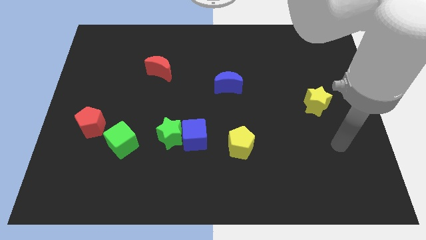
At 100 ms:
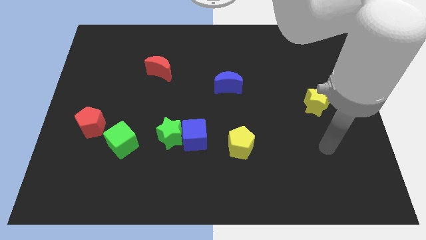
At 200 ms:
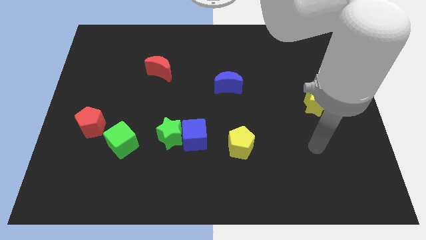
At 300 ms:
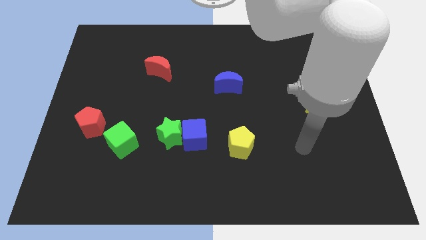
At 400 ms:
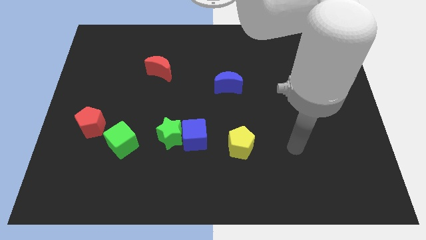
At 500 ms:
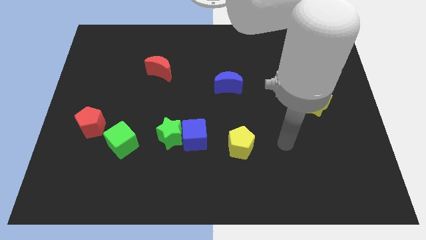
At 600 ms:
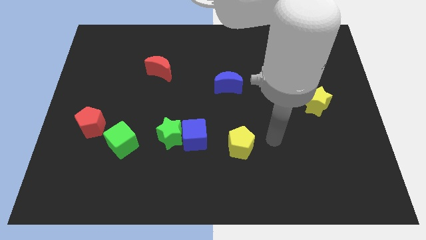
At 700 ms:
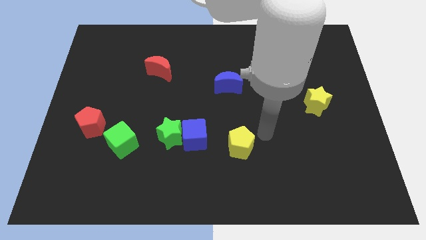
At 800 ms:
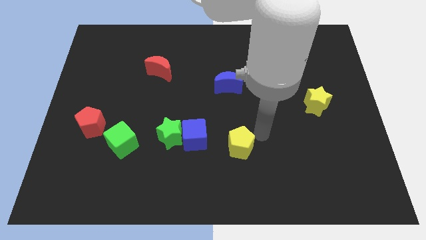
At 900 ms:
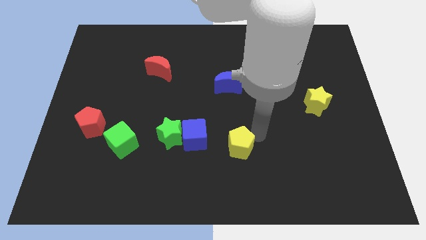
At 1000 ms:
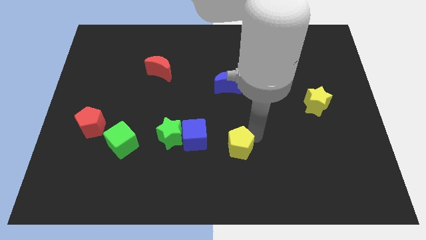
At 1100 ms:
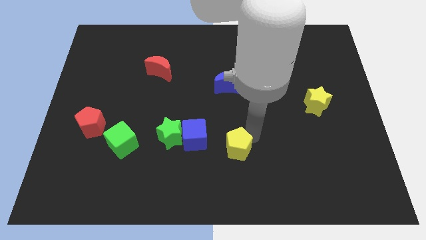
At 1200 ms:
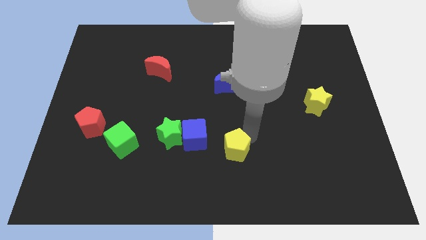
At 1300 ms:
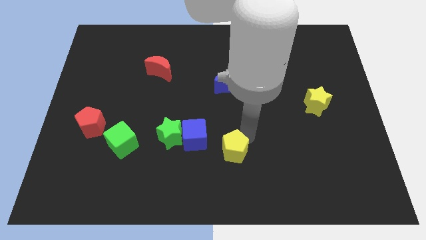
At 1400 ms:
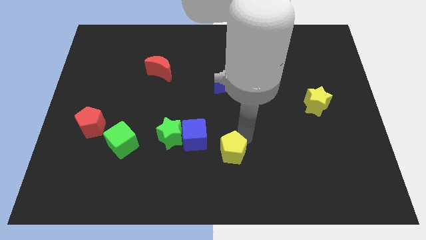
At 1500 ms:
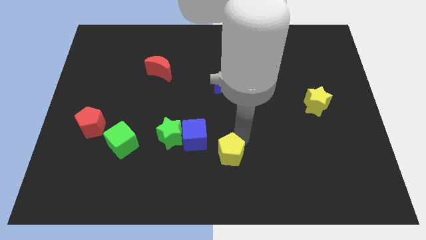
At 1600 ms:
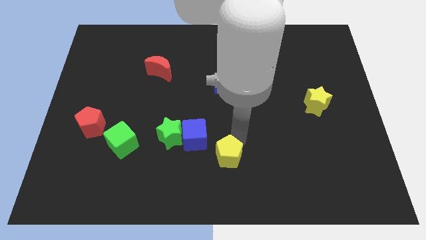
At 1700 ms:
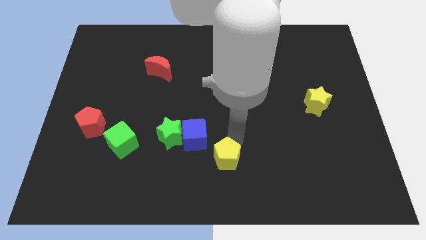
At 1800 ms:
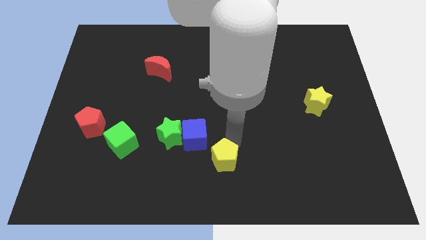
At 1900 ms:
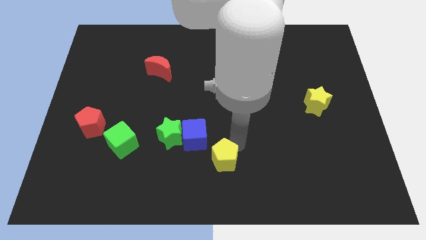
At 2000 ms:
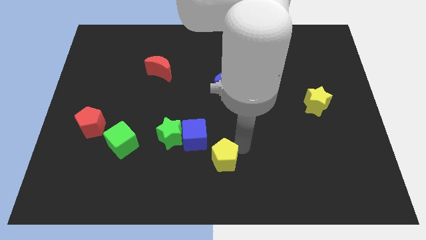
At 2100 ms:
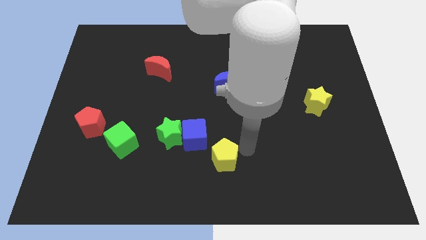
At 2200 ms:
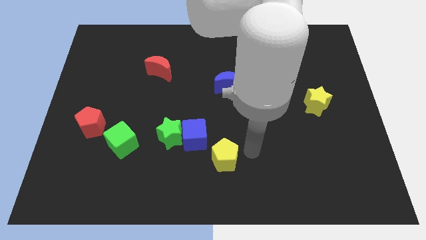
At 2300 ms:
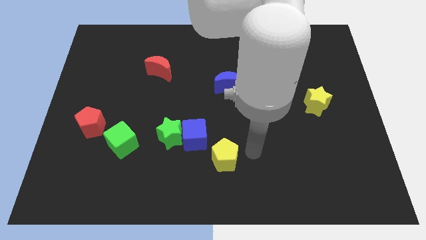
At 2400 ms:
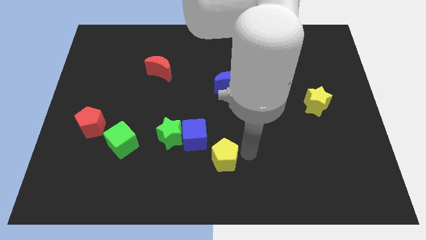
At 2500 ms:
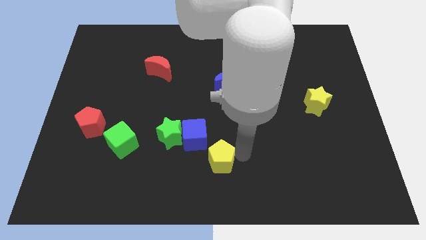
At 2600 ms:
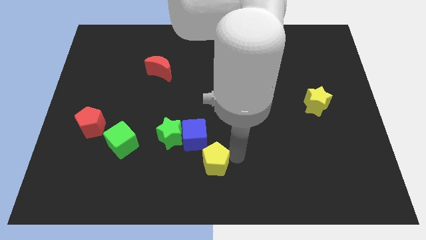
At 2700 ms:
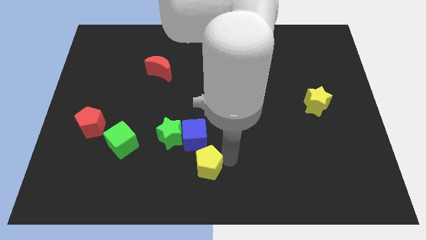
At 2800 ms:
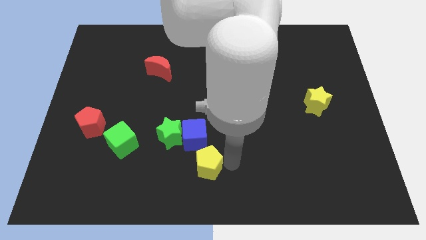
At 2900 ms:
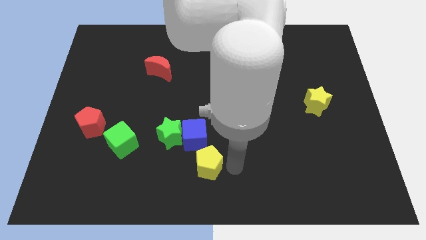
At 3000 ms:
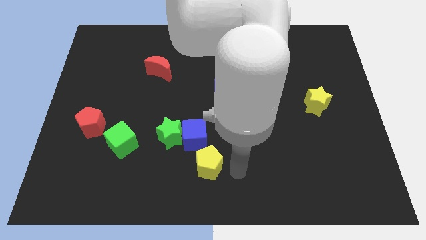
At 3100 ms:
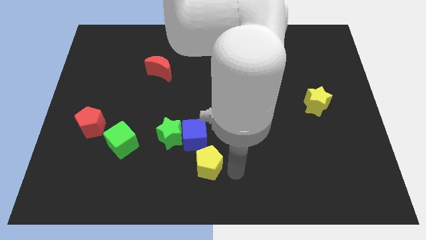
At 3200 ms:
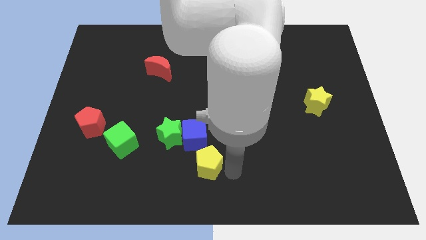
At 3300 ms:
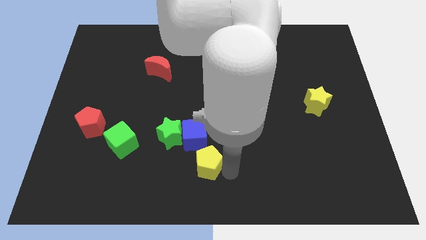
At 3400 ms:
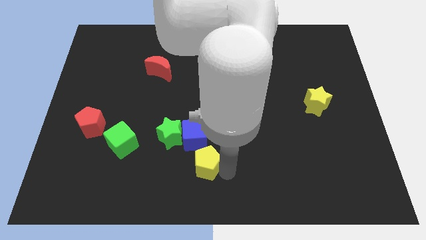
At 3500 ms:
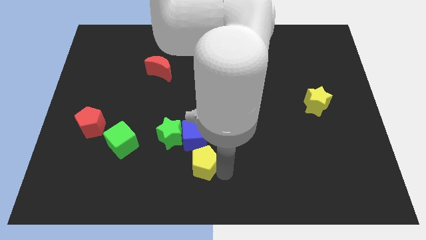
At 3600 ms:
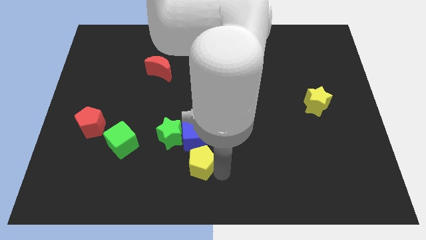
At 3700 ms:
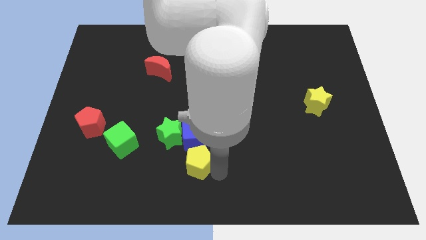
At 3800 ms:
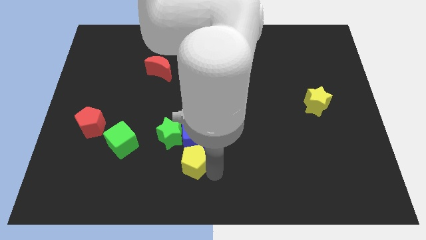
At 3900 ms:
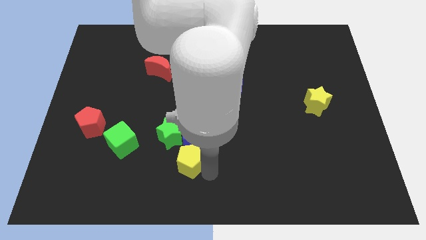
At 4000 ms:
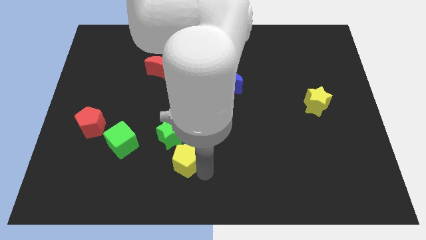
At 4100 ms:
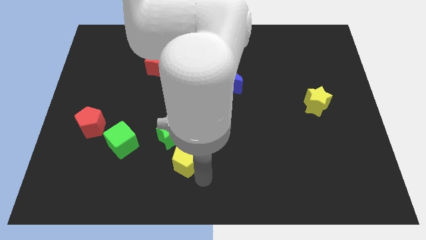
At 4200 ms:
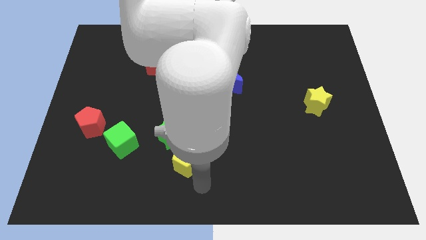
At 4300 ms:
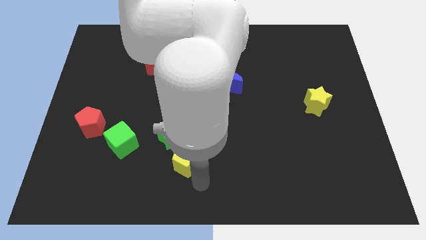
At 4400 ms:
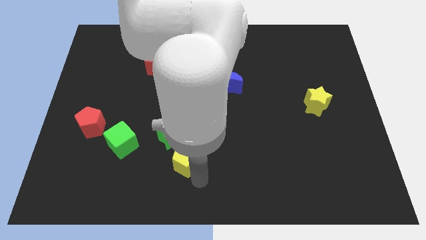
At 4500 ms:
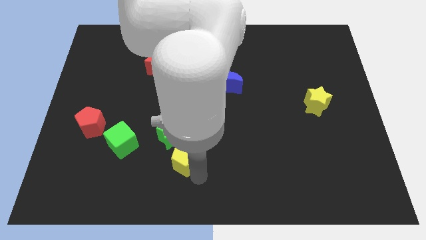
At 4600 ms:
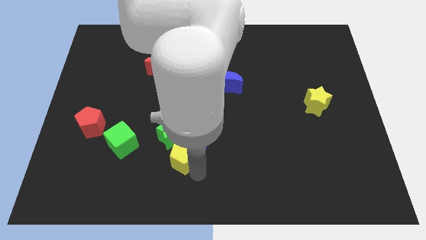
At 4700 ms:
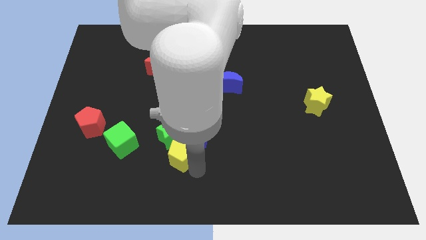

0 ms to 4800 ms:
push the yellow pentagon next to the green star

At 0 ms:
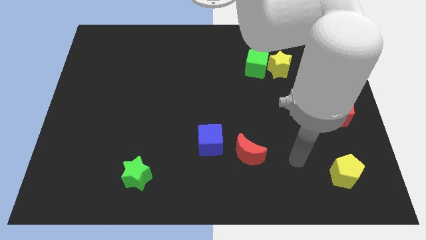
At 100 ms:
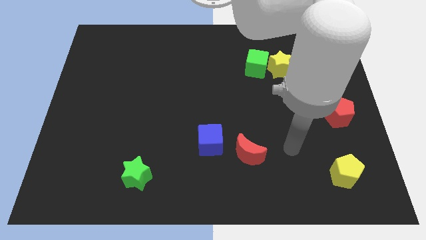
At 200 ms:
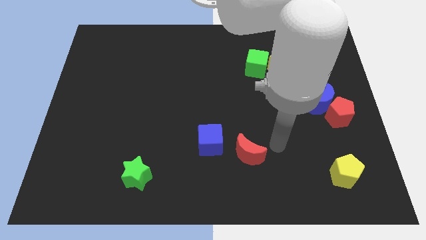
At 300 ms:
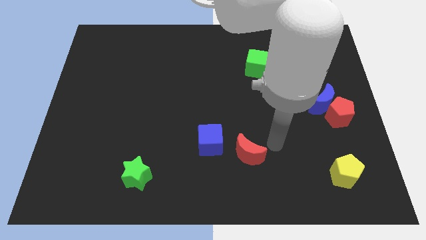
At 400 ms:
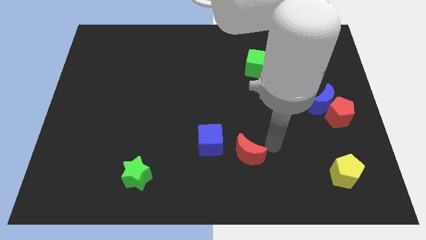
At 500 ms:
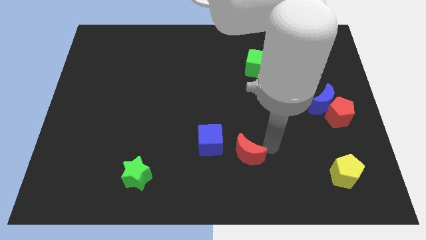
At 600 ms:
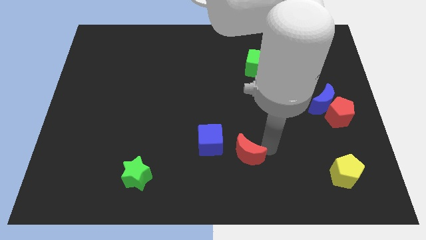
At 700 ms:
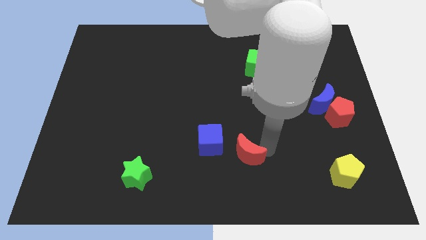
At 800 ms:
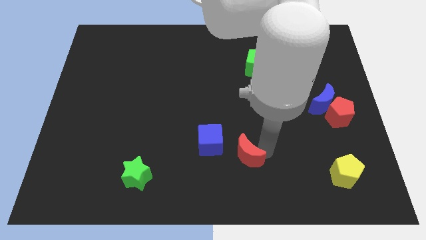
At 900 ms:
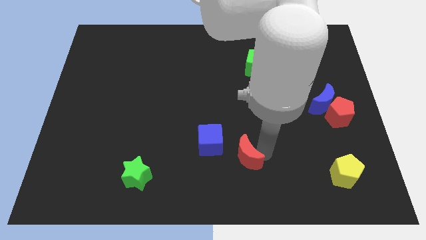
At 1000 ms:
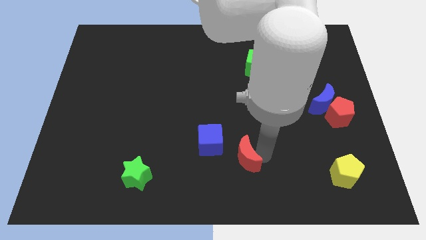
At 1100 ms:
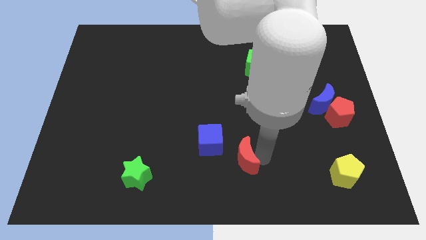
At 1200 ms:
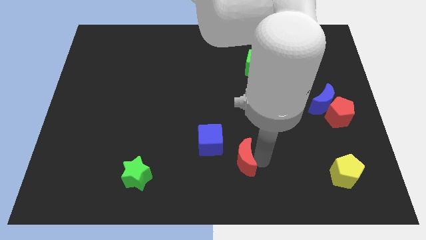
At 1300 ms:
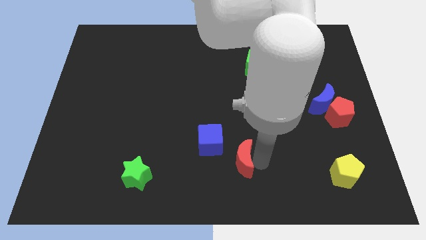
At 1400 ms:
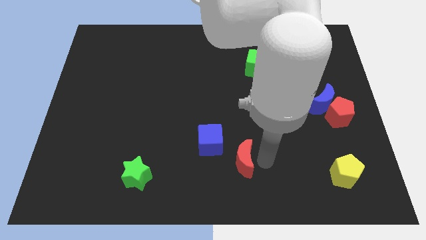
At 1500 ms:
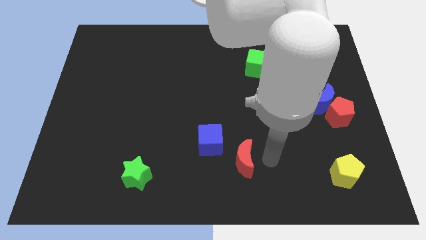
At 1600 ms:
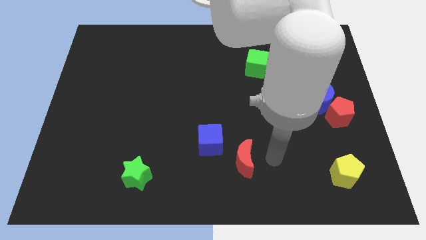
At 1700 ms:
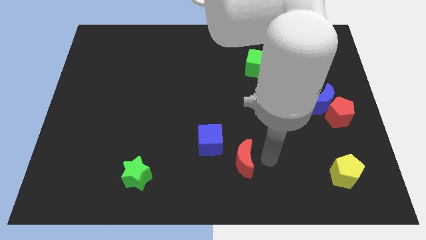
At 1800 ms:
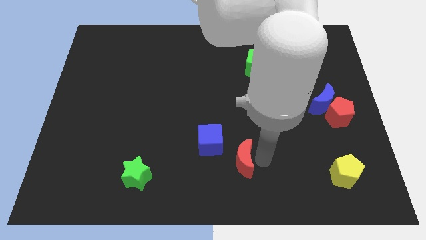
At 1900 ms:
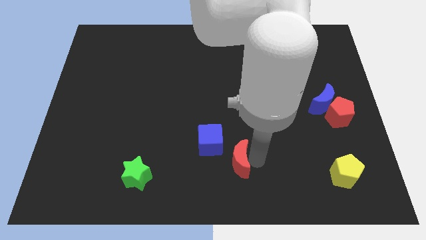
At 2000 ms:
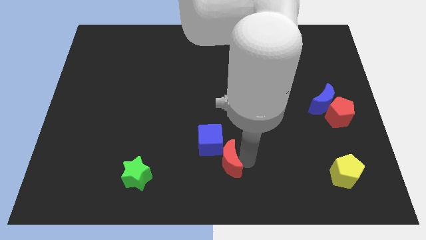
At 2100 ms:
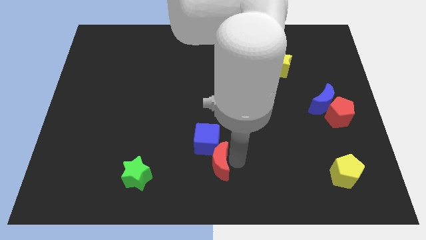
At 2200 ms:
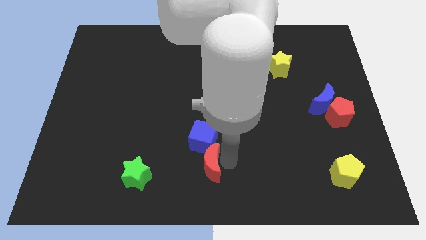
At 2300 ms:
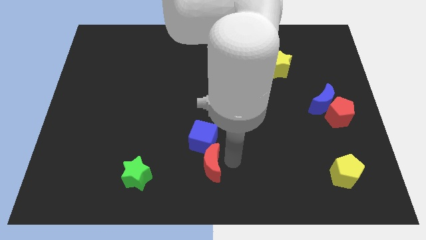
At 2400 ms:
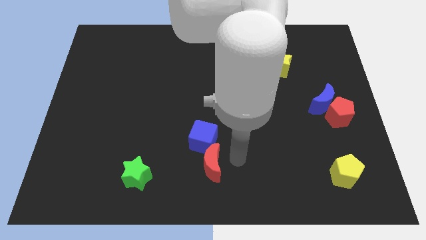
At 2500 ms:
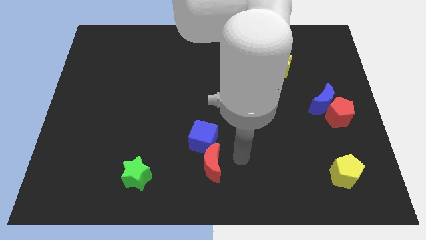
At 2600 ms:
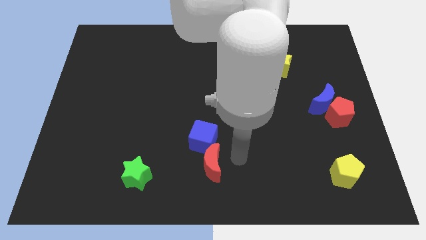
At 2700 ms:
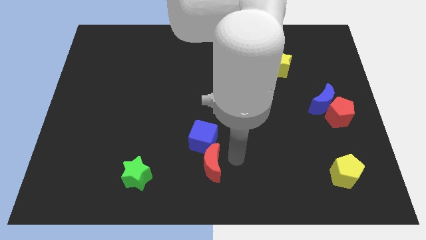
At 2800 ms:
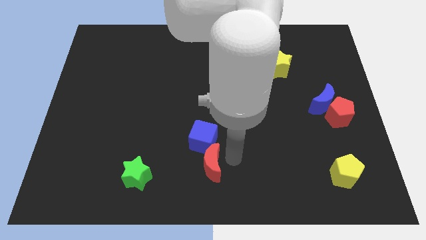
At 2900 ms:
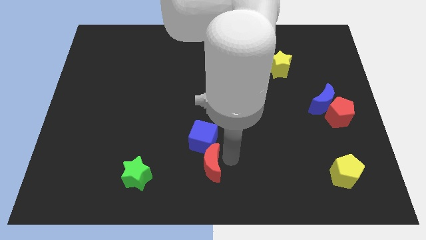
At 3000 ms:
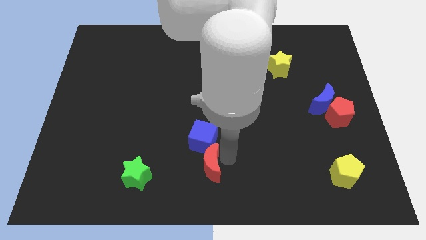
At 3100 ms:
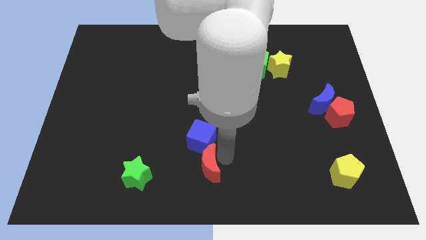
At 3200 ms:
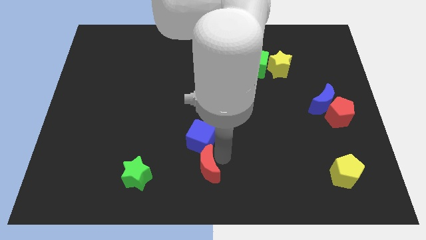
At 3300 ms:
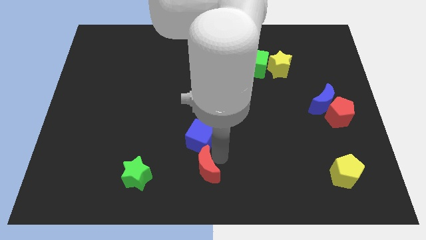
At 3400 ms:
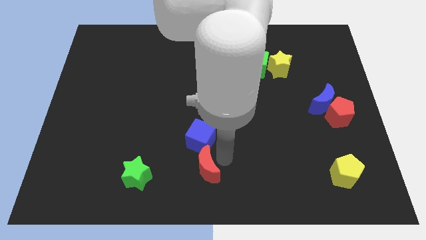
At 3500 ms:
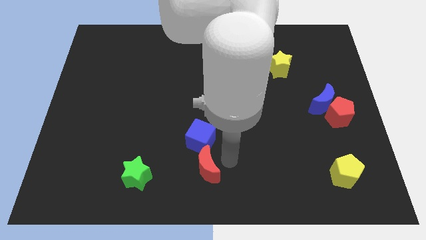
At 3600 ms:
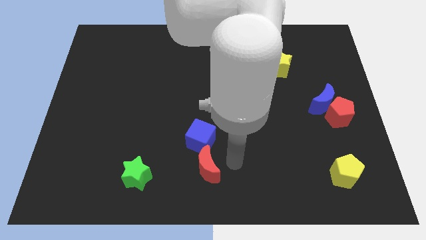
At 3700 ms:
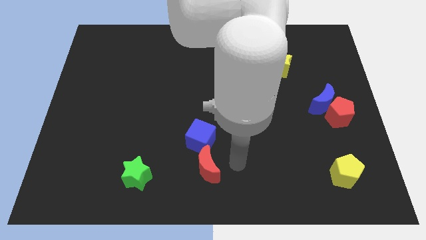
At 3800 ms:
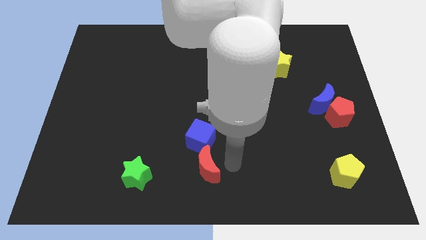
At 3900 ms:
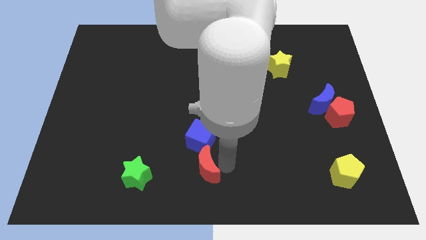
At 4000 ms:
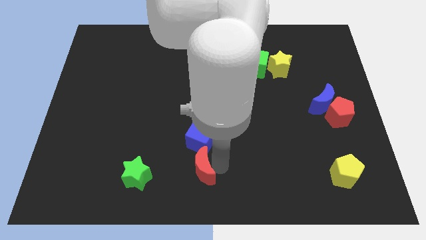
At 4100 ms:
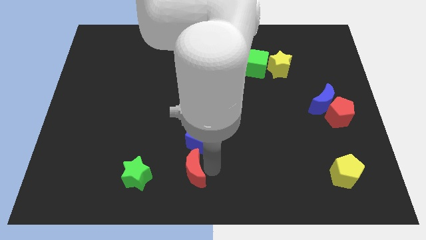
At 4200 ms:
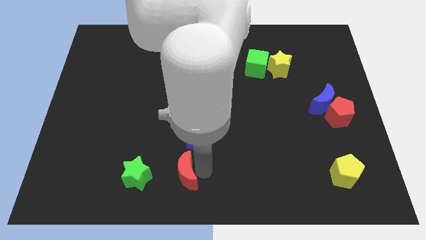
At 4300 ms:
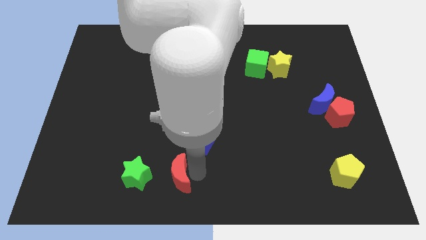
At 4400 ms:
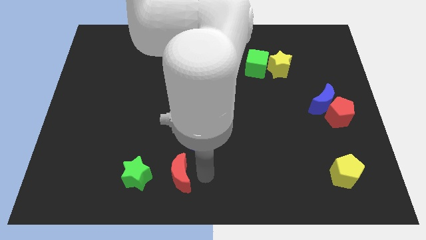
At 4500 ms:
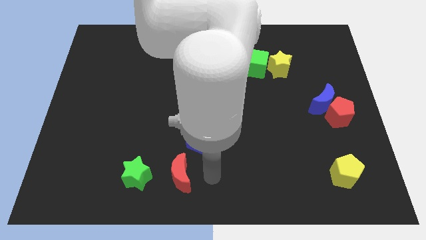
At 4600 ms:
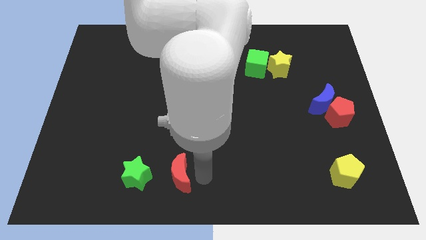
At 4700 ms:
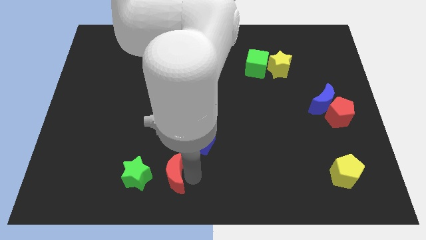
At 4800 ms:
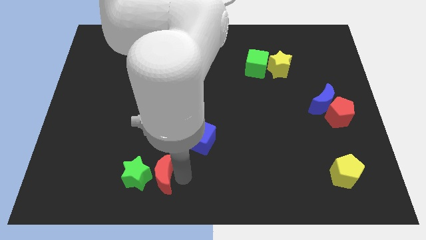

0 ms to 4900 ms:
slide the red moon next to the green star
